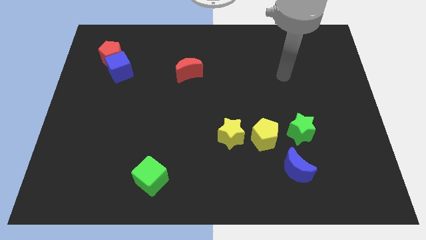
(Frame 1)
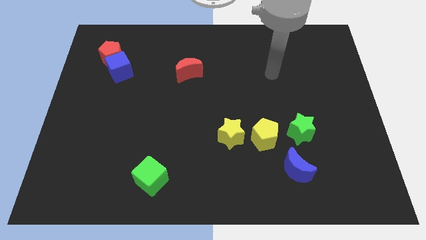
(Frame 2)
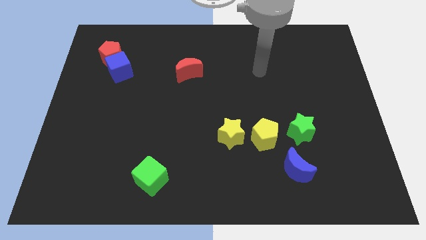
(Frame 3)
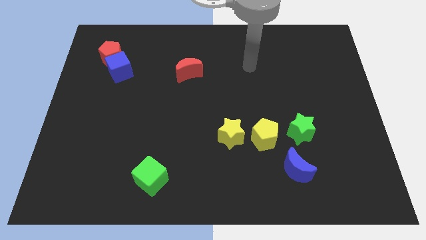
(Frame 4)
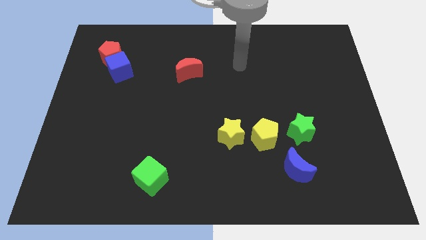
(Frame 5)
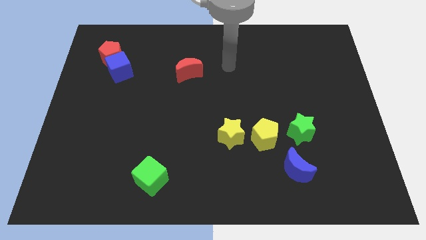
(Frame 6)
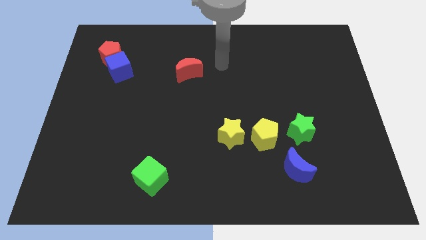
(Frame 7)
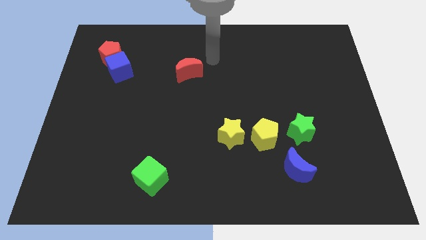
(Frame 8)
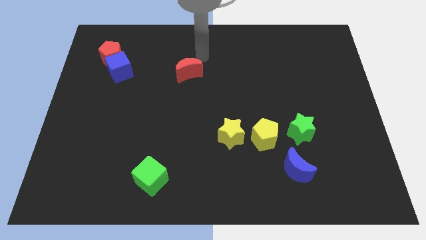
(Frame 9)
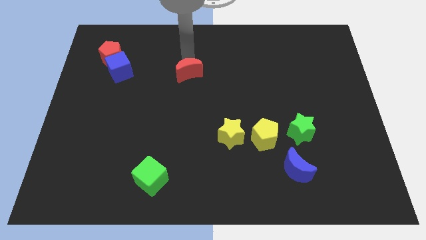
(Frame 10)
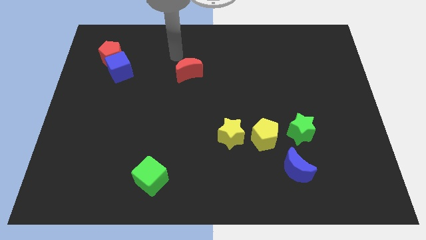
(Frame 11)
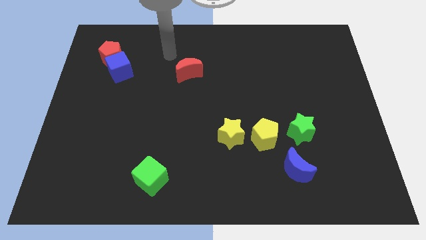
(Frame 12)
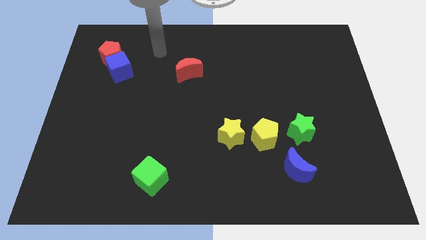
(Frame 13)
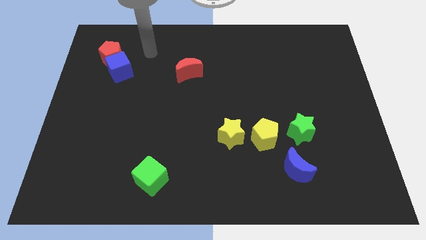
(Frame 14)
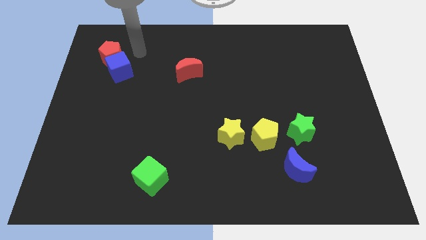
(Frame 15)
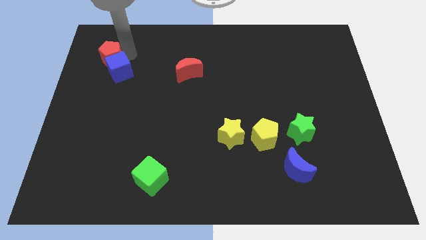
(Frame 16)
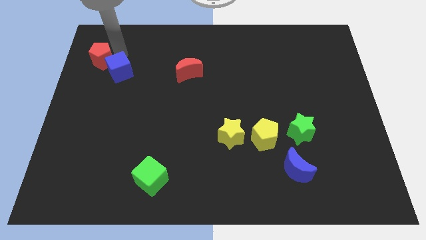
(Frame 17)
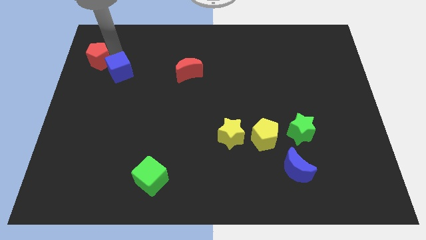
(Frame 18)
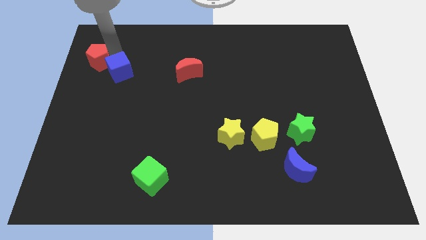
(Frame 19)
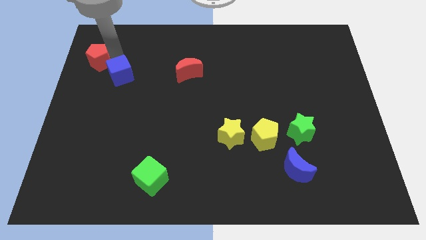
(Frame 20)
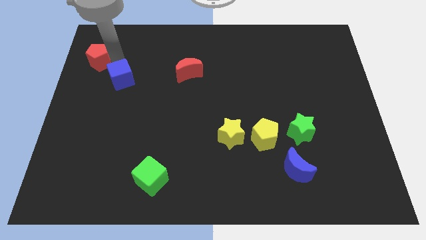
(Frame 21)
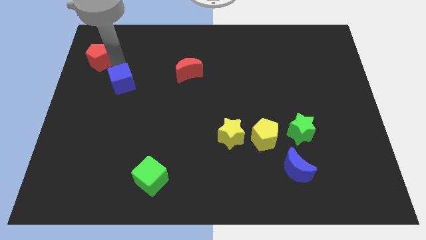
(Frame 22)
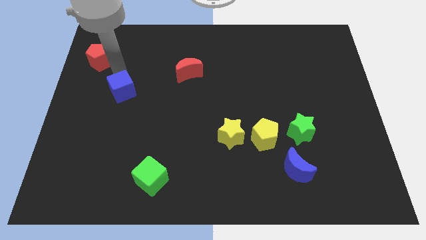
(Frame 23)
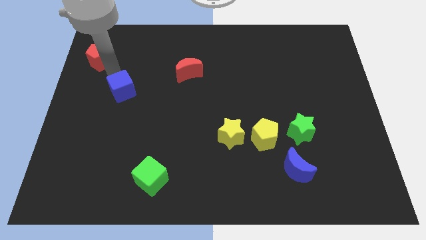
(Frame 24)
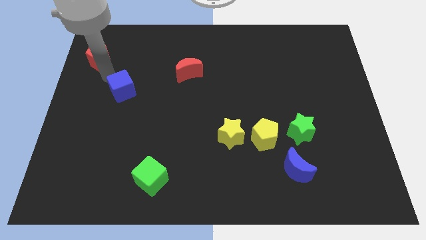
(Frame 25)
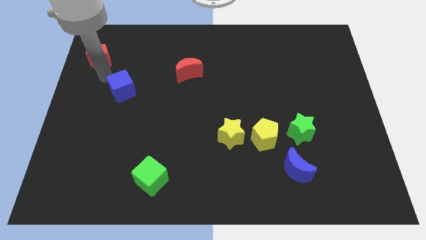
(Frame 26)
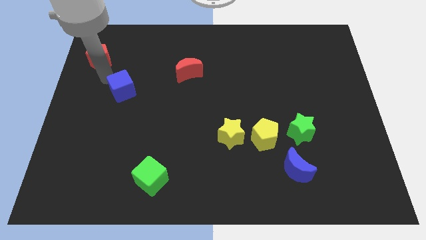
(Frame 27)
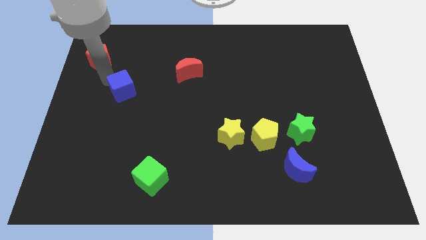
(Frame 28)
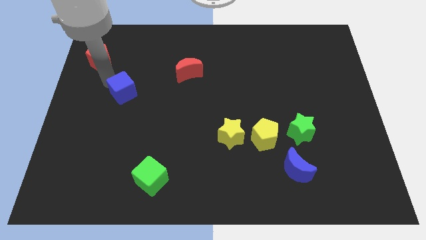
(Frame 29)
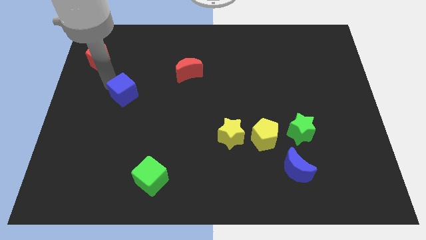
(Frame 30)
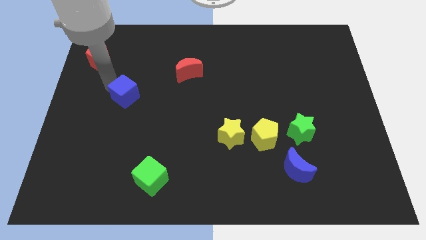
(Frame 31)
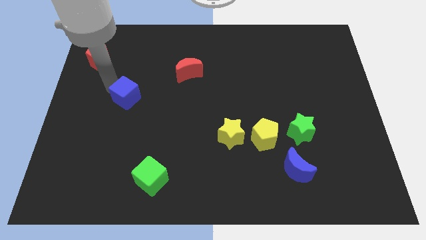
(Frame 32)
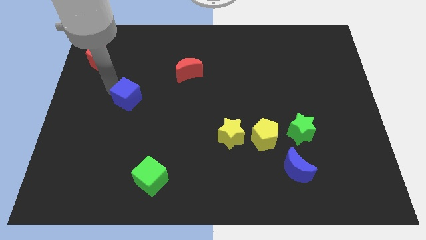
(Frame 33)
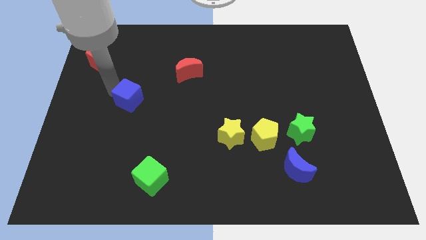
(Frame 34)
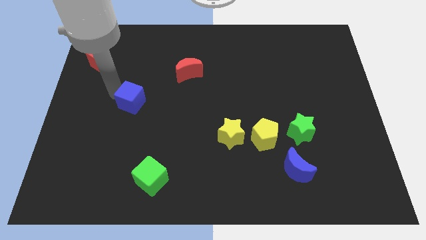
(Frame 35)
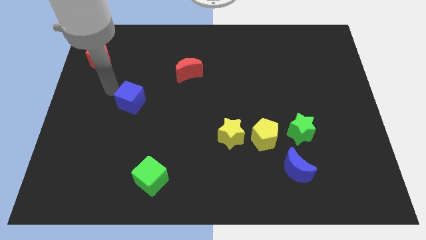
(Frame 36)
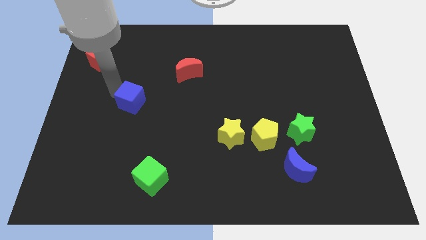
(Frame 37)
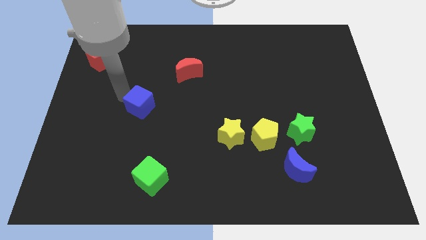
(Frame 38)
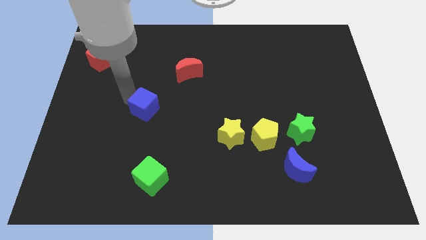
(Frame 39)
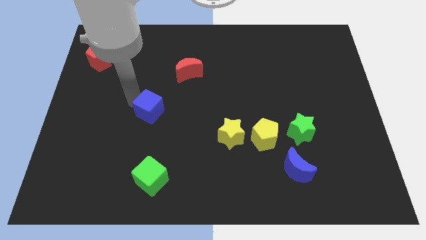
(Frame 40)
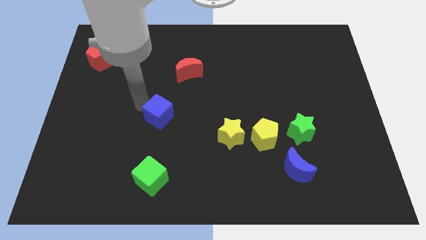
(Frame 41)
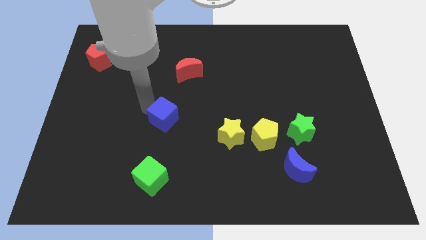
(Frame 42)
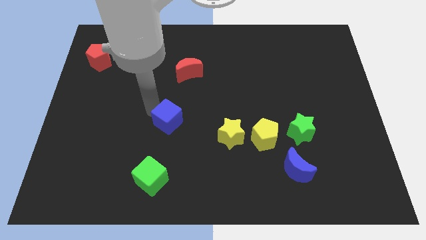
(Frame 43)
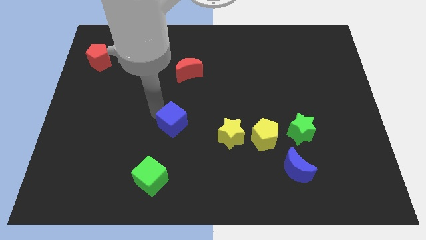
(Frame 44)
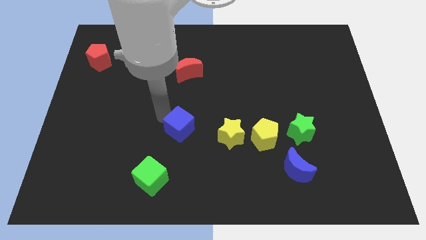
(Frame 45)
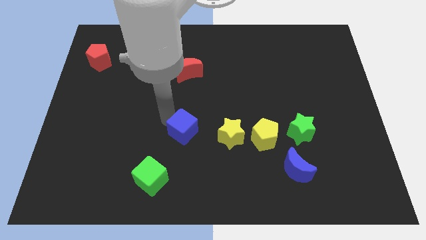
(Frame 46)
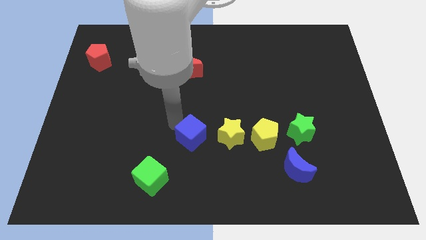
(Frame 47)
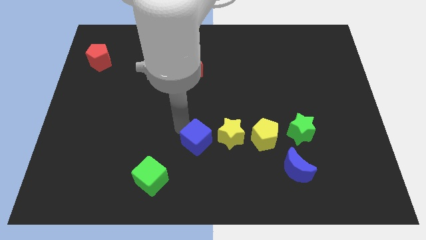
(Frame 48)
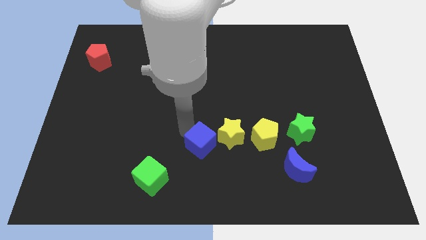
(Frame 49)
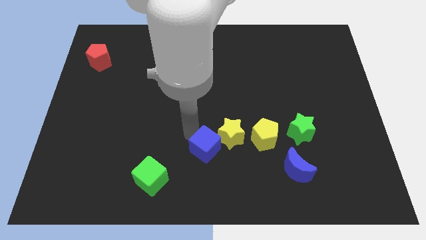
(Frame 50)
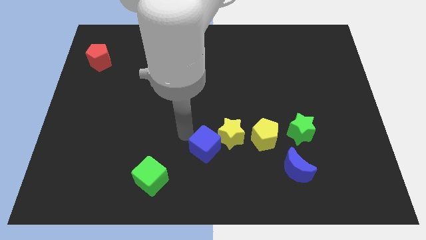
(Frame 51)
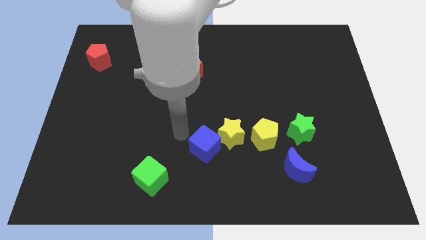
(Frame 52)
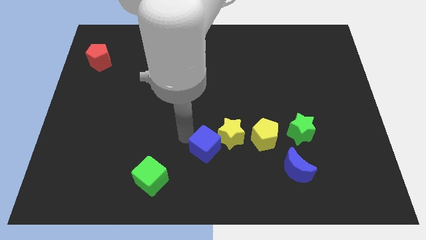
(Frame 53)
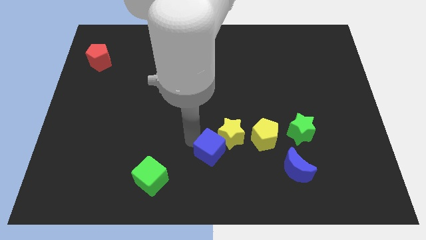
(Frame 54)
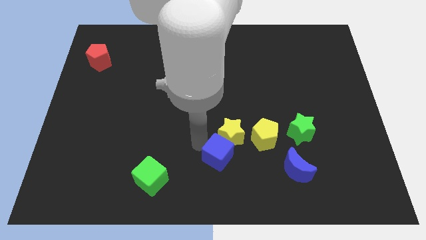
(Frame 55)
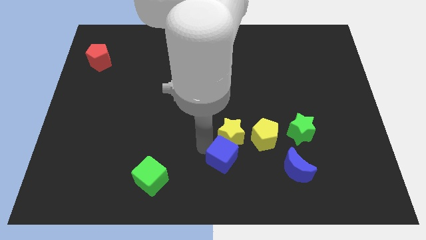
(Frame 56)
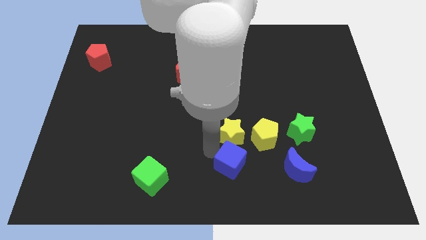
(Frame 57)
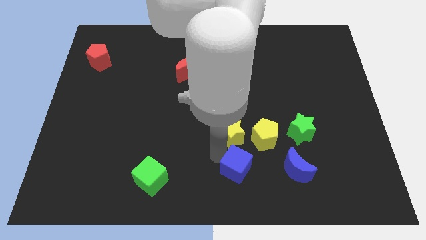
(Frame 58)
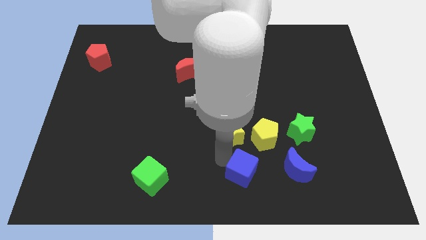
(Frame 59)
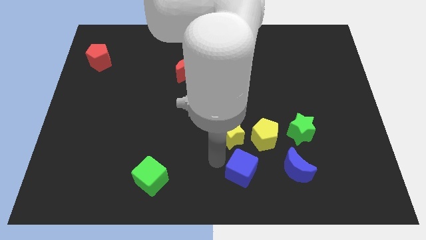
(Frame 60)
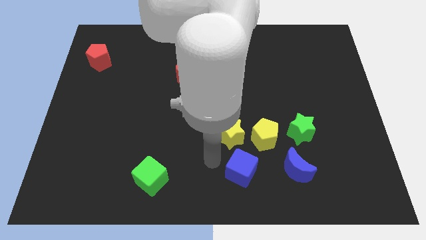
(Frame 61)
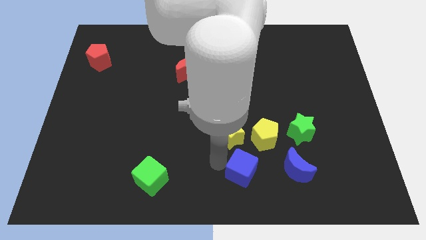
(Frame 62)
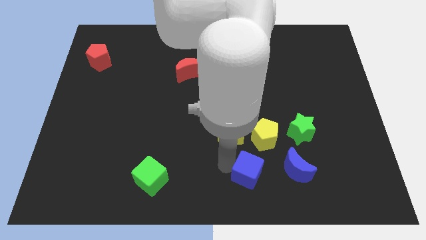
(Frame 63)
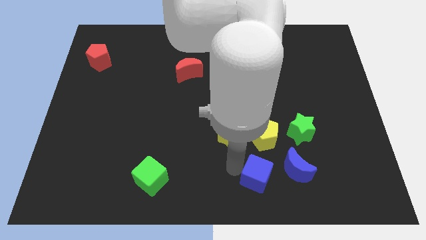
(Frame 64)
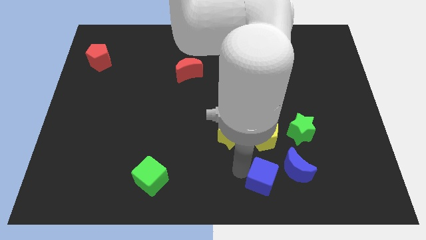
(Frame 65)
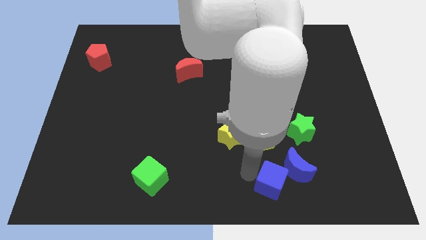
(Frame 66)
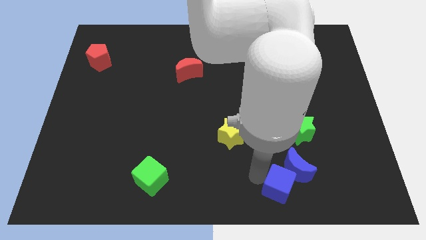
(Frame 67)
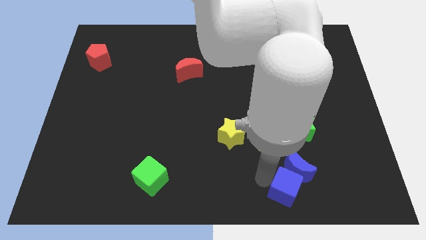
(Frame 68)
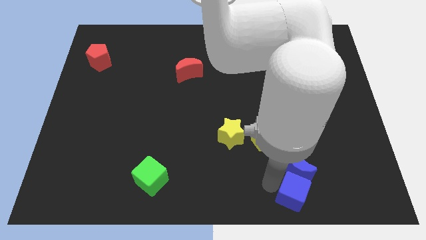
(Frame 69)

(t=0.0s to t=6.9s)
move the blue cube below the green star

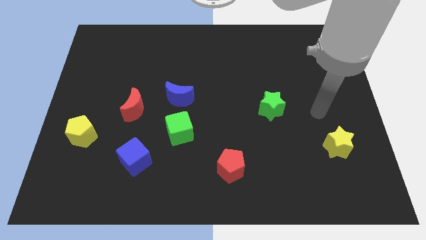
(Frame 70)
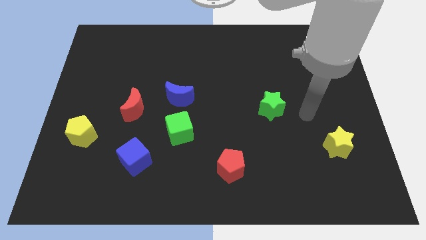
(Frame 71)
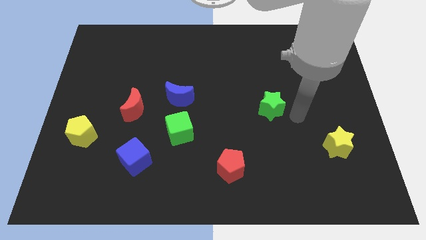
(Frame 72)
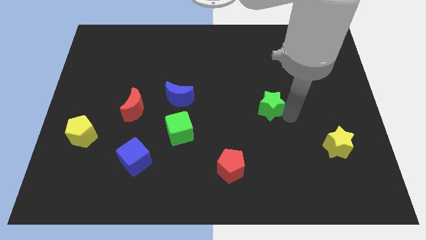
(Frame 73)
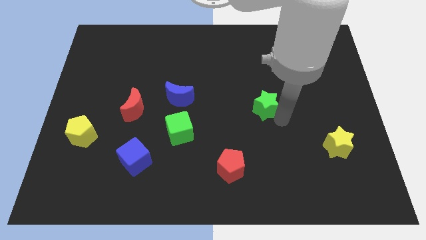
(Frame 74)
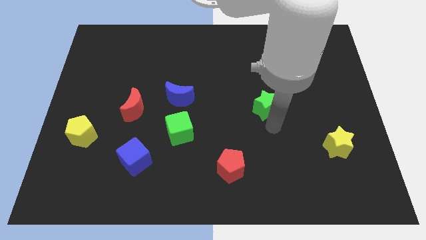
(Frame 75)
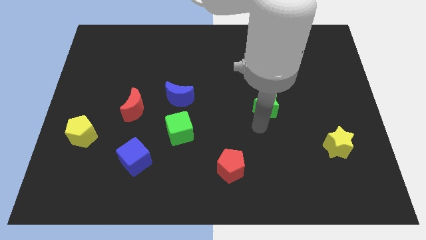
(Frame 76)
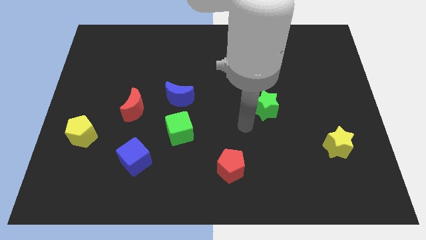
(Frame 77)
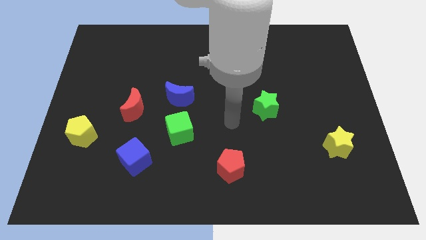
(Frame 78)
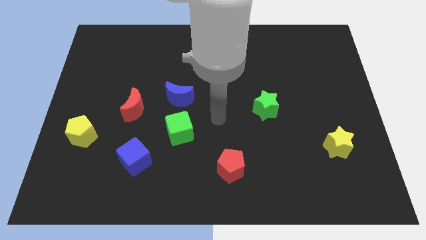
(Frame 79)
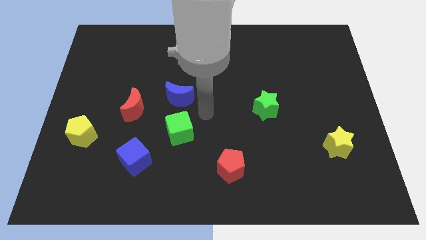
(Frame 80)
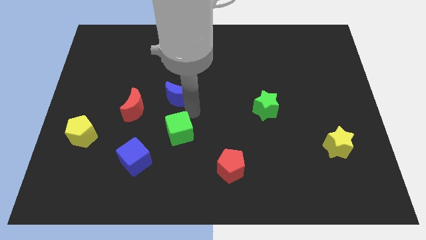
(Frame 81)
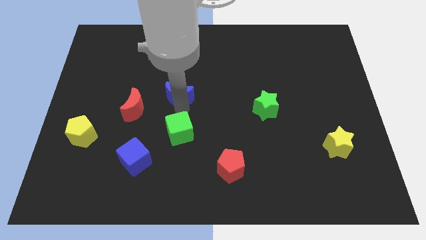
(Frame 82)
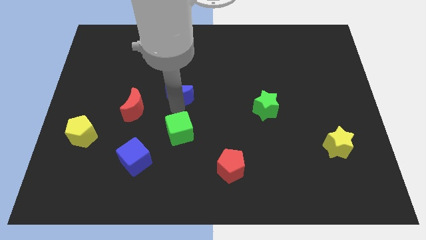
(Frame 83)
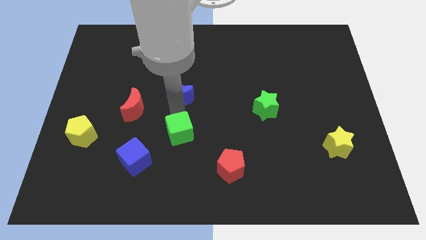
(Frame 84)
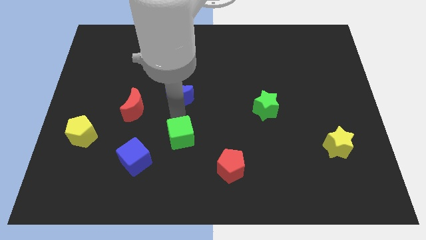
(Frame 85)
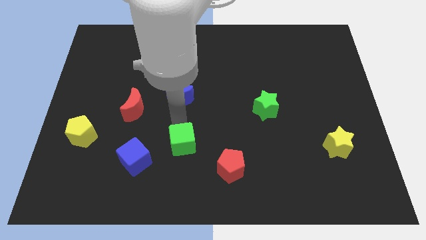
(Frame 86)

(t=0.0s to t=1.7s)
slide the green cube to the right of the blue cube
